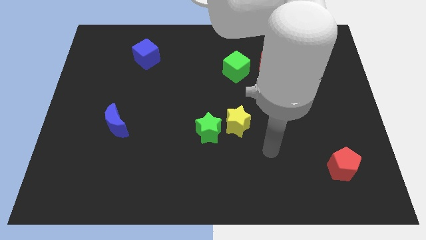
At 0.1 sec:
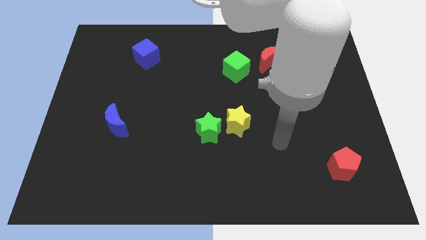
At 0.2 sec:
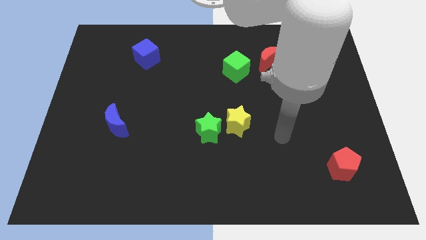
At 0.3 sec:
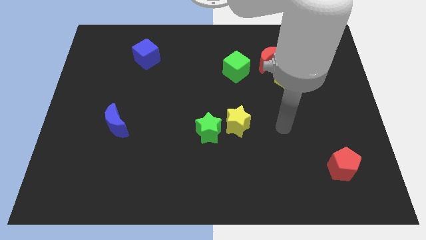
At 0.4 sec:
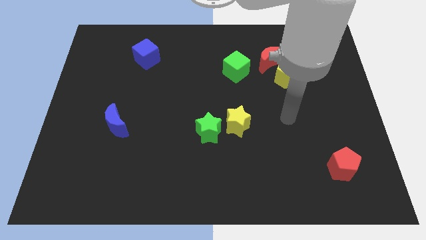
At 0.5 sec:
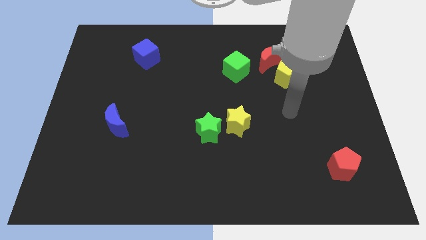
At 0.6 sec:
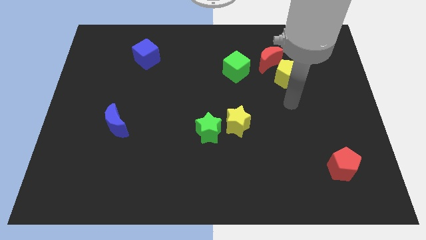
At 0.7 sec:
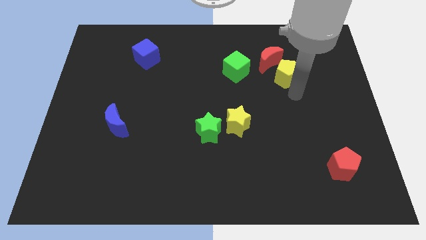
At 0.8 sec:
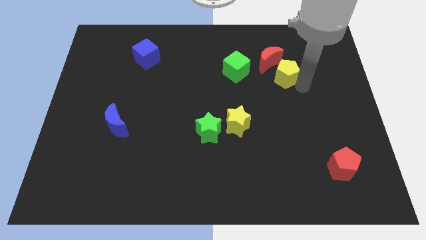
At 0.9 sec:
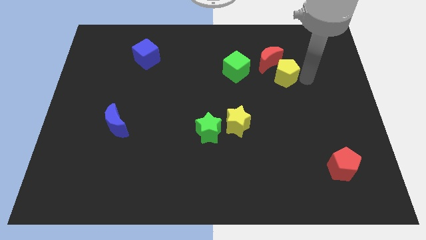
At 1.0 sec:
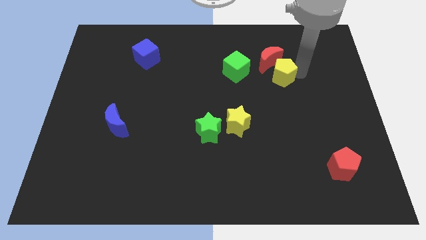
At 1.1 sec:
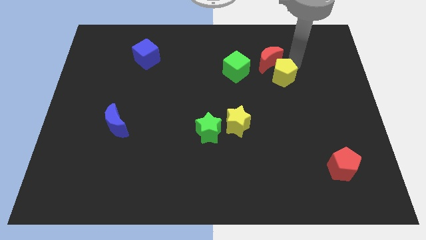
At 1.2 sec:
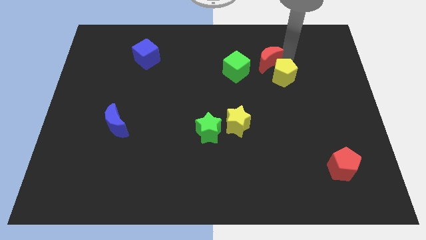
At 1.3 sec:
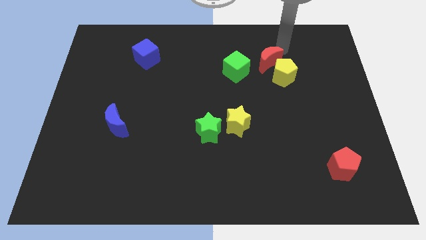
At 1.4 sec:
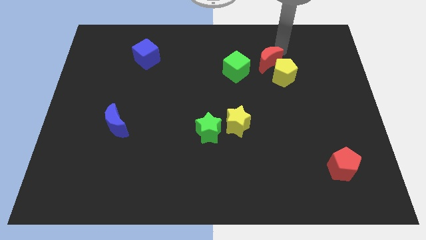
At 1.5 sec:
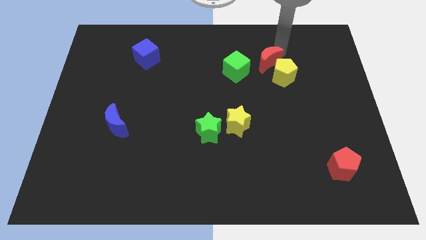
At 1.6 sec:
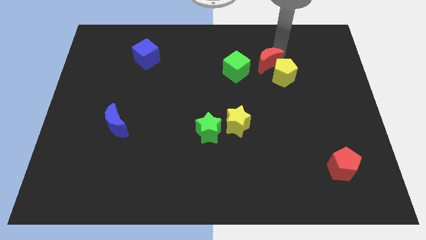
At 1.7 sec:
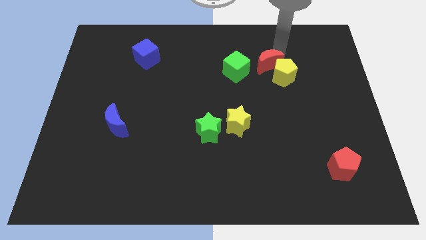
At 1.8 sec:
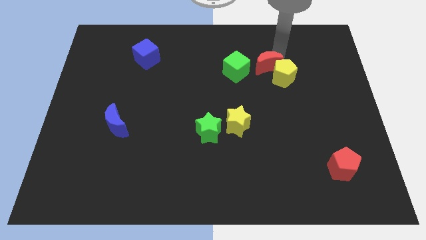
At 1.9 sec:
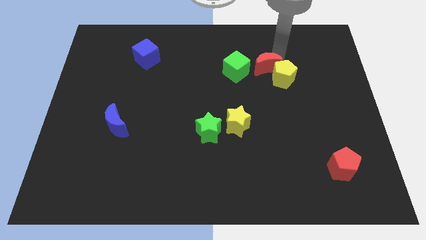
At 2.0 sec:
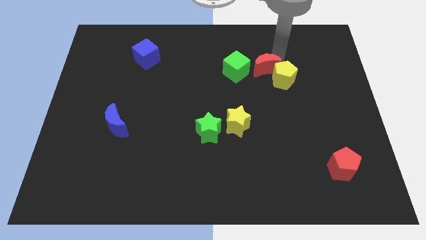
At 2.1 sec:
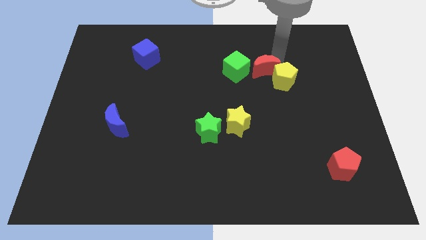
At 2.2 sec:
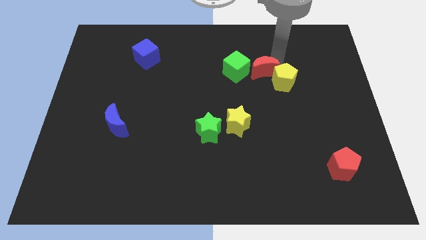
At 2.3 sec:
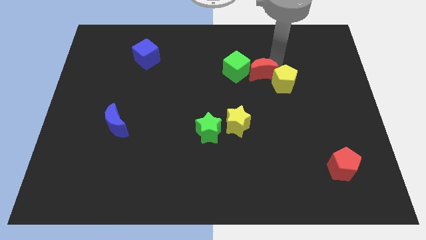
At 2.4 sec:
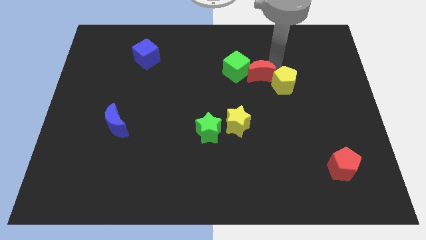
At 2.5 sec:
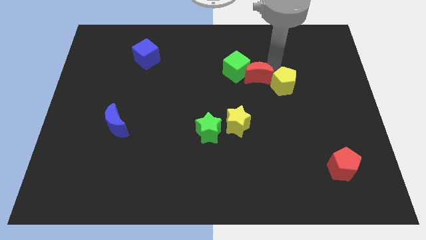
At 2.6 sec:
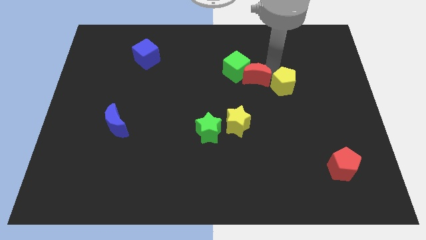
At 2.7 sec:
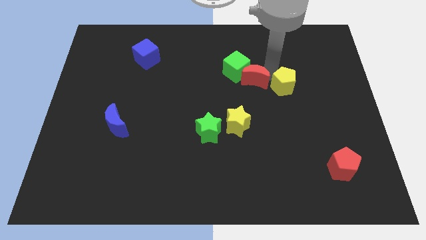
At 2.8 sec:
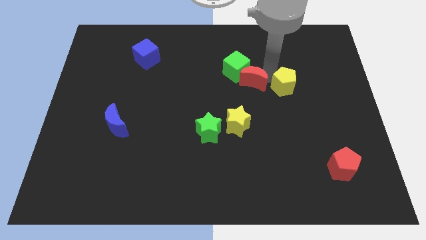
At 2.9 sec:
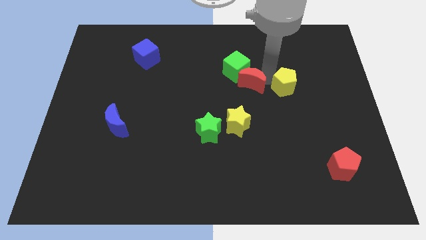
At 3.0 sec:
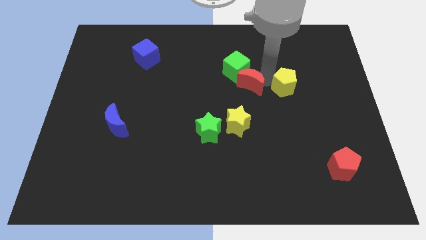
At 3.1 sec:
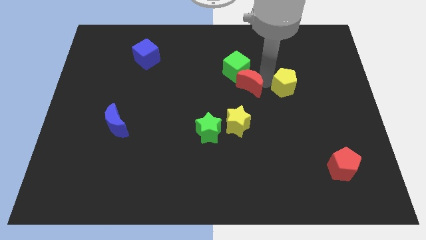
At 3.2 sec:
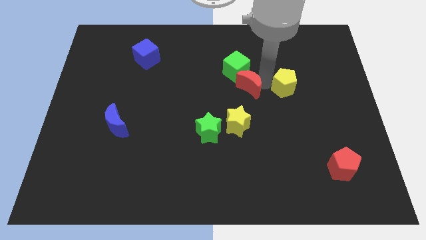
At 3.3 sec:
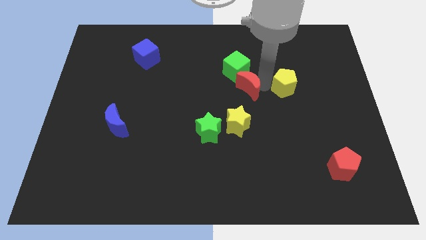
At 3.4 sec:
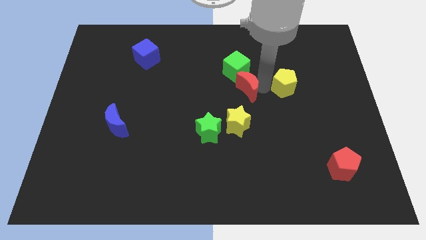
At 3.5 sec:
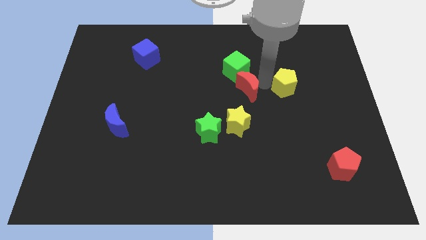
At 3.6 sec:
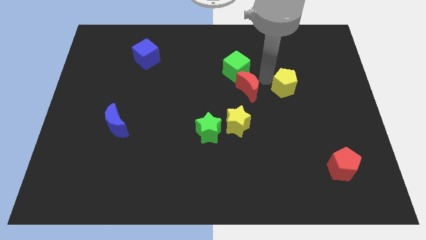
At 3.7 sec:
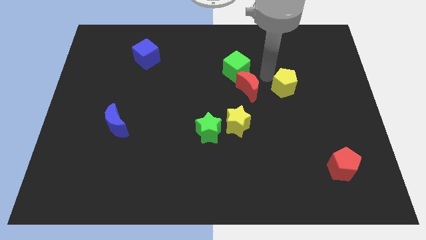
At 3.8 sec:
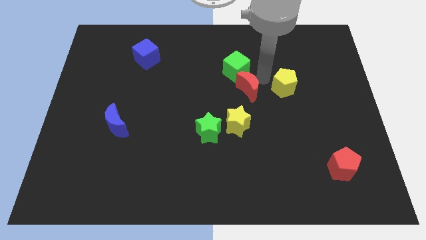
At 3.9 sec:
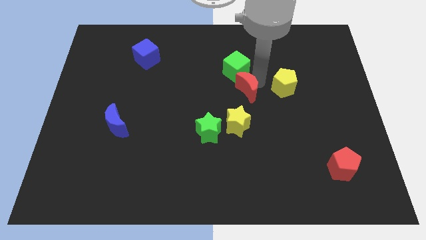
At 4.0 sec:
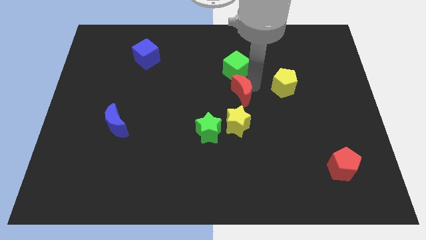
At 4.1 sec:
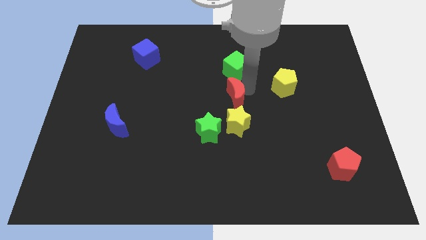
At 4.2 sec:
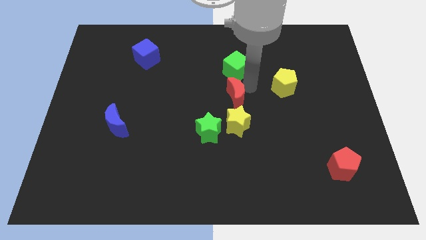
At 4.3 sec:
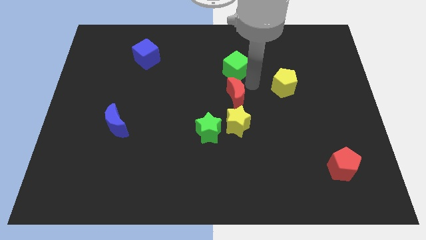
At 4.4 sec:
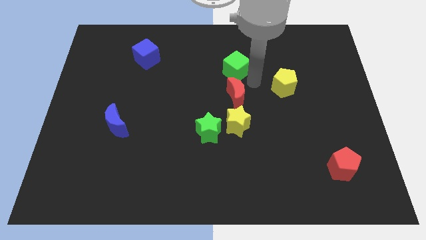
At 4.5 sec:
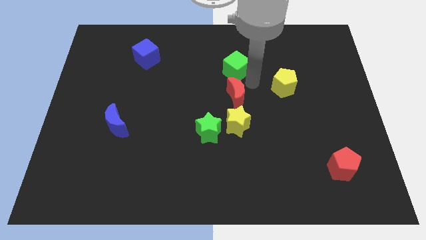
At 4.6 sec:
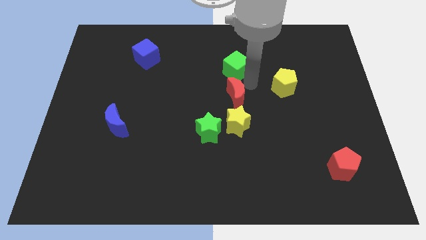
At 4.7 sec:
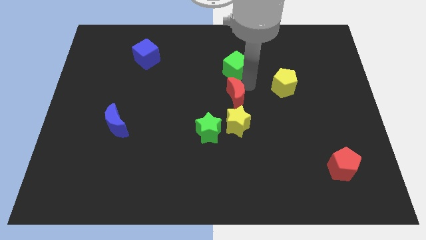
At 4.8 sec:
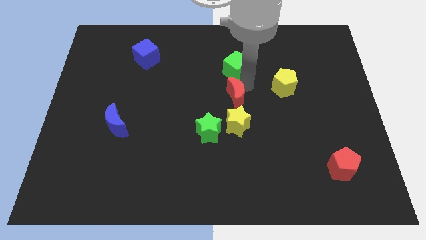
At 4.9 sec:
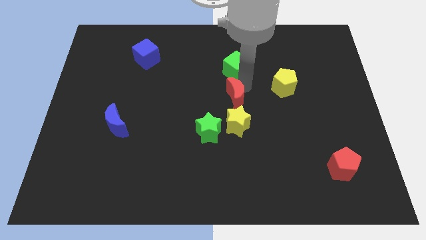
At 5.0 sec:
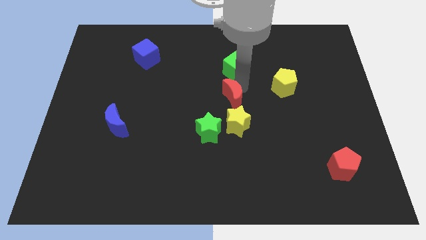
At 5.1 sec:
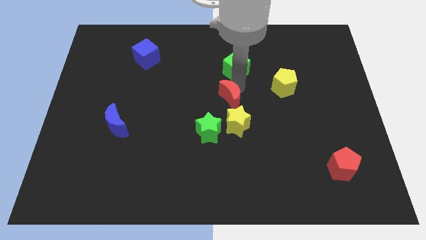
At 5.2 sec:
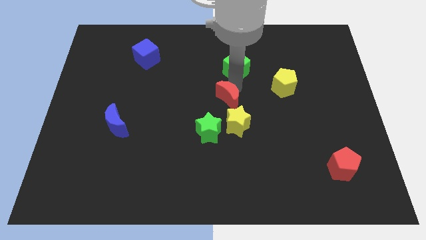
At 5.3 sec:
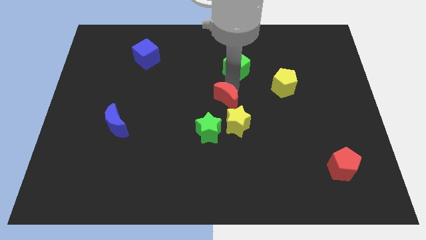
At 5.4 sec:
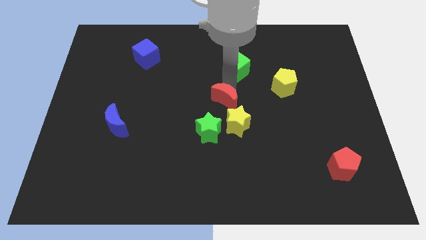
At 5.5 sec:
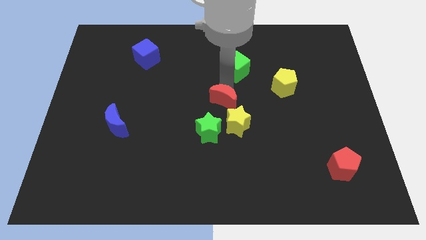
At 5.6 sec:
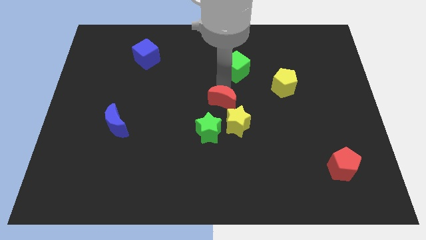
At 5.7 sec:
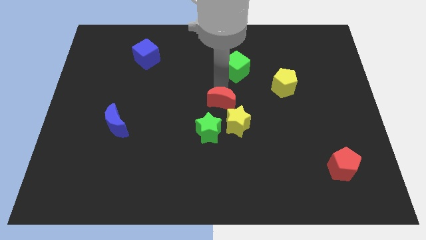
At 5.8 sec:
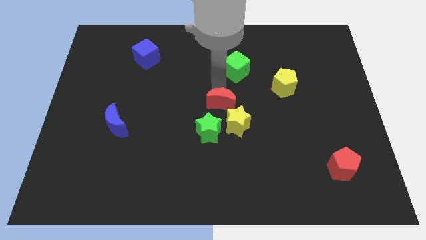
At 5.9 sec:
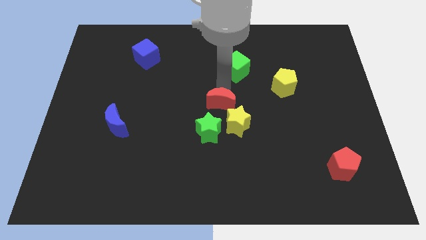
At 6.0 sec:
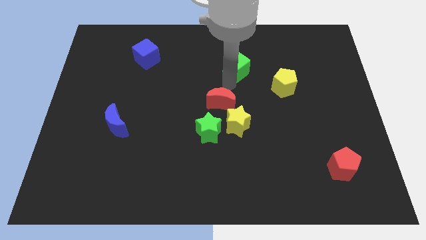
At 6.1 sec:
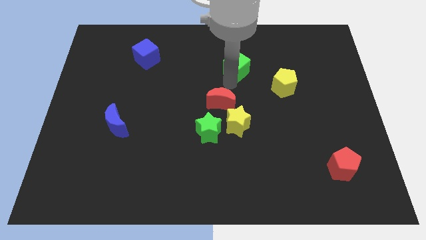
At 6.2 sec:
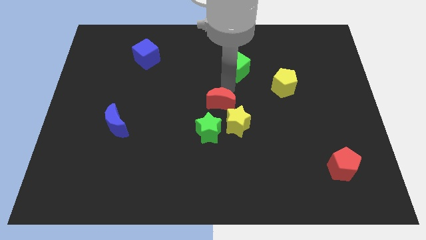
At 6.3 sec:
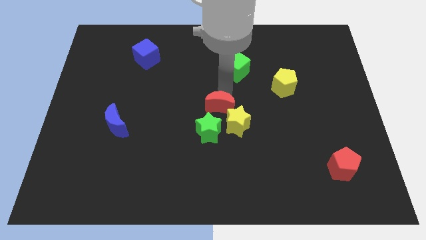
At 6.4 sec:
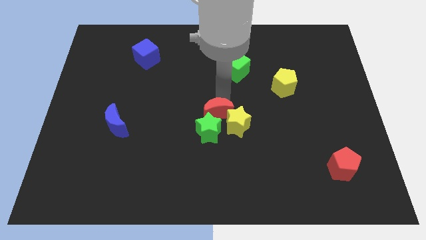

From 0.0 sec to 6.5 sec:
push the red moon towards the green star

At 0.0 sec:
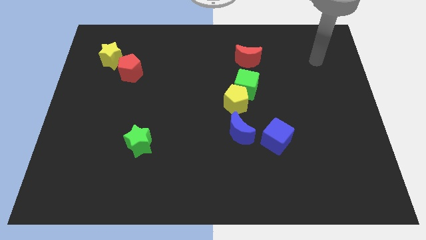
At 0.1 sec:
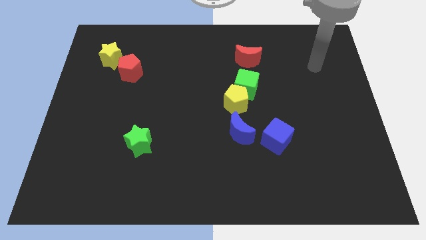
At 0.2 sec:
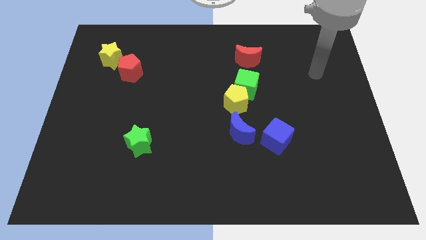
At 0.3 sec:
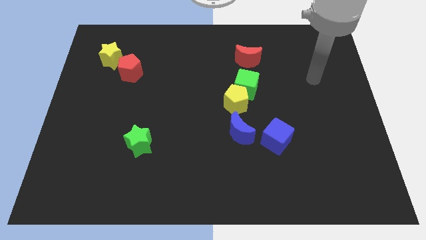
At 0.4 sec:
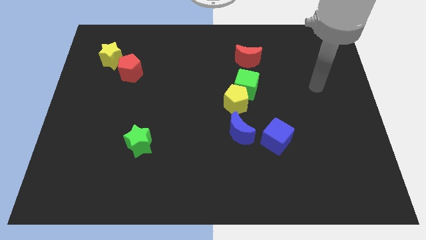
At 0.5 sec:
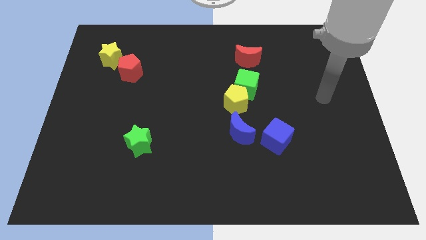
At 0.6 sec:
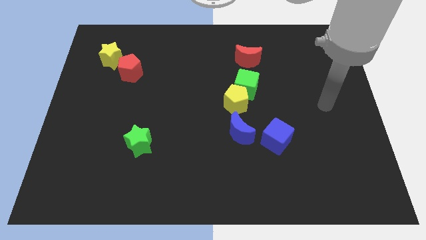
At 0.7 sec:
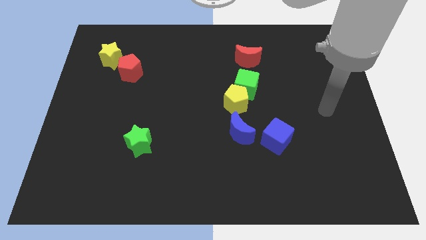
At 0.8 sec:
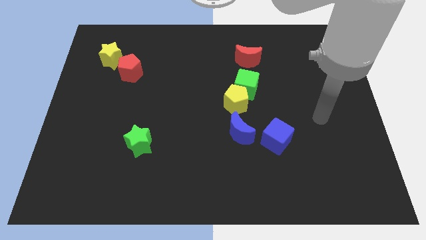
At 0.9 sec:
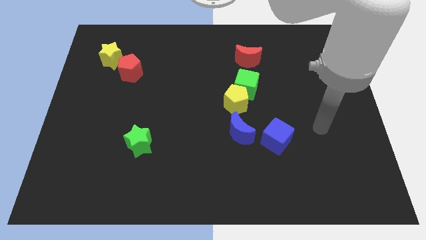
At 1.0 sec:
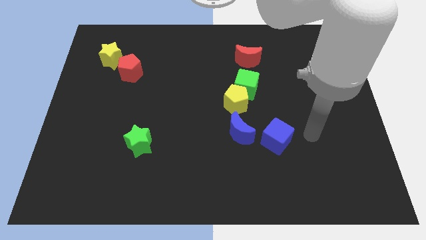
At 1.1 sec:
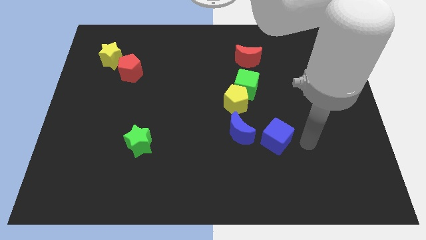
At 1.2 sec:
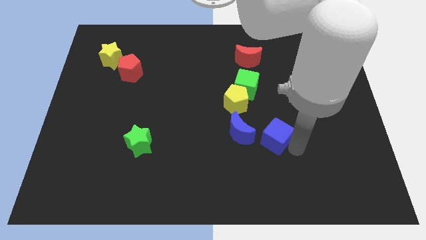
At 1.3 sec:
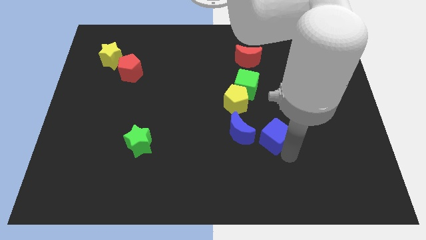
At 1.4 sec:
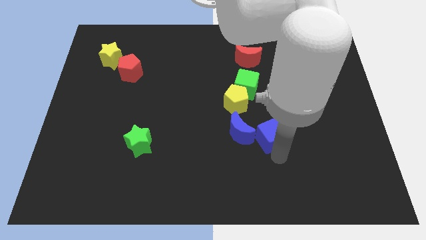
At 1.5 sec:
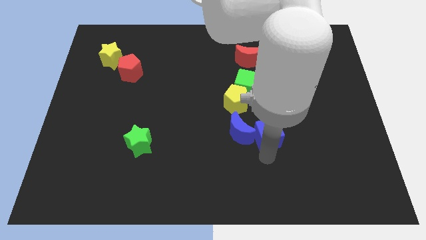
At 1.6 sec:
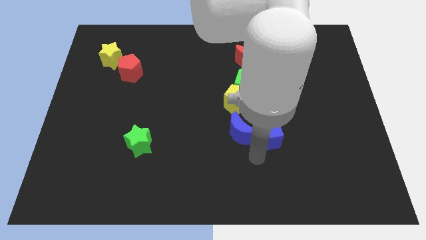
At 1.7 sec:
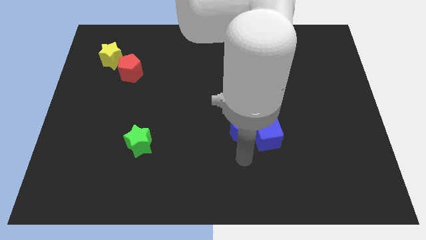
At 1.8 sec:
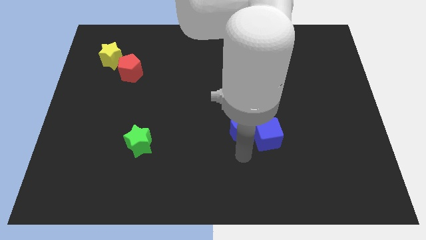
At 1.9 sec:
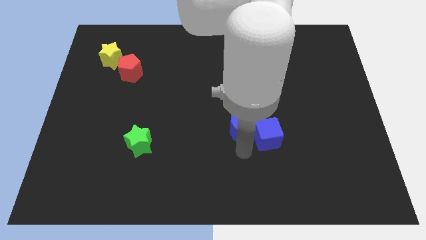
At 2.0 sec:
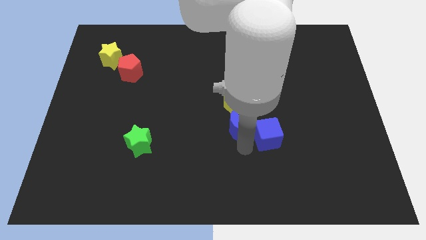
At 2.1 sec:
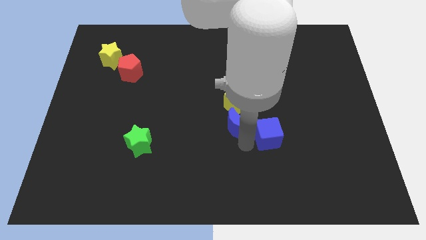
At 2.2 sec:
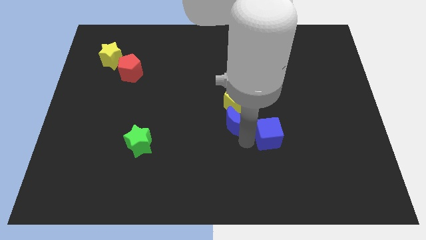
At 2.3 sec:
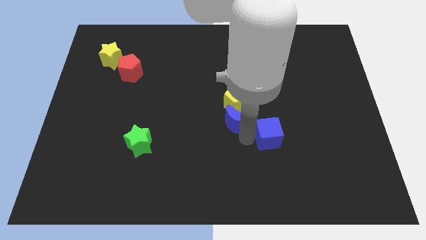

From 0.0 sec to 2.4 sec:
move the blue moon to the yellow pentagon
